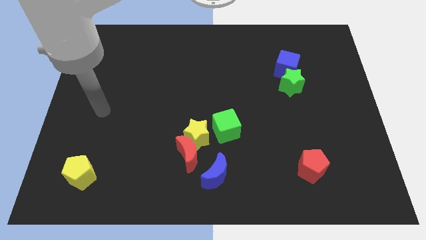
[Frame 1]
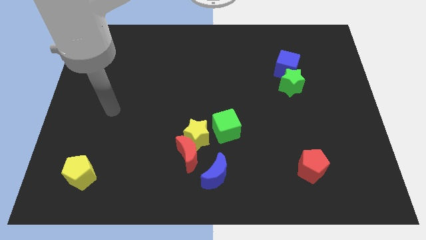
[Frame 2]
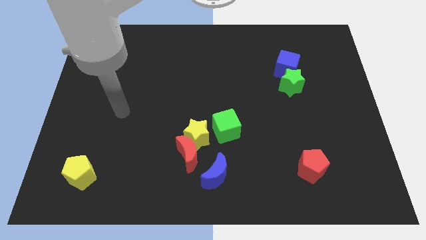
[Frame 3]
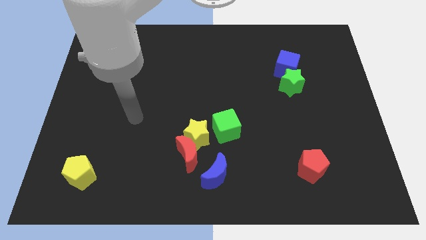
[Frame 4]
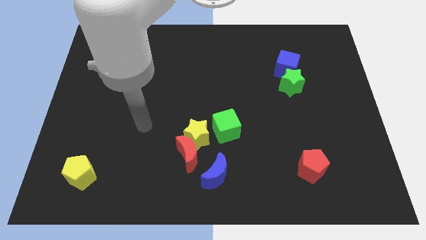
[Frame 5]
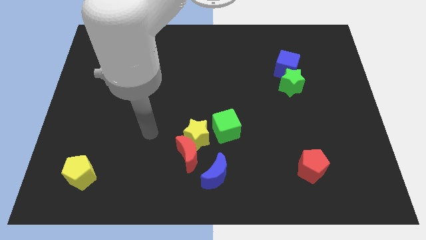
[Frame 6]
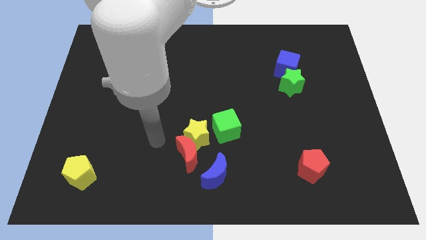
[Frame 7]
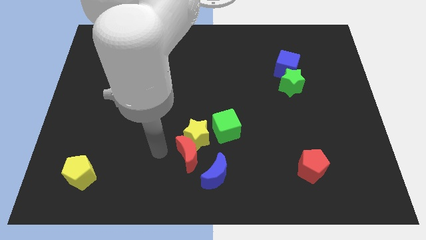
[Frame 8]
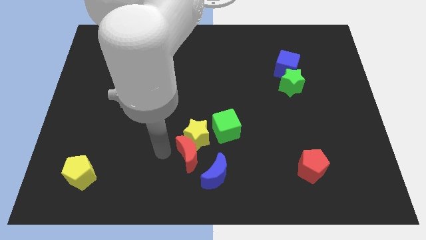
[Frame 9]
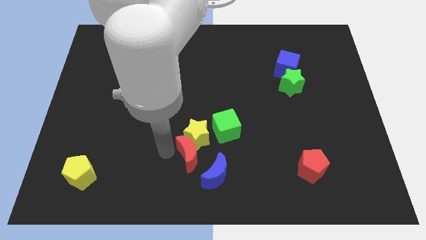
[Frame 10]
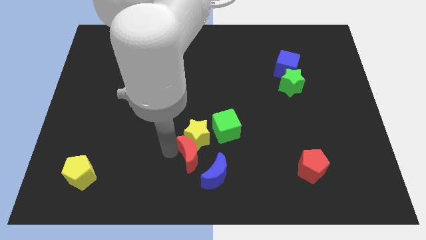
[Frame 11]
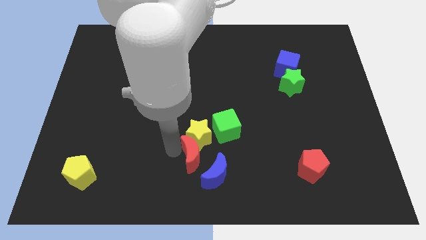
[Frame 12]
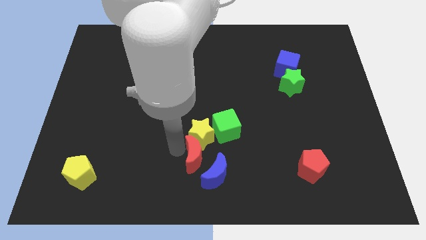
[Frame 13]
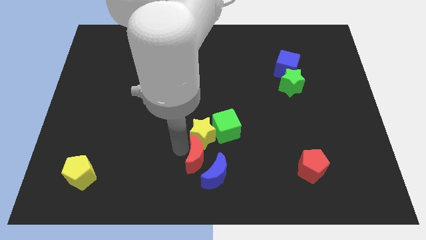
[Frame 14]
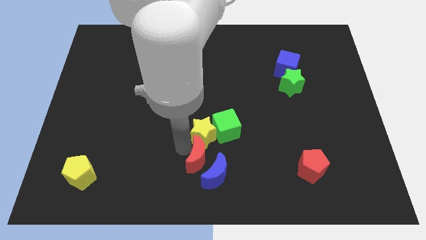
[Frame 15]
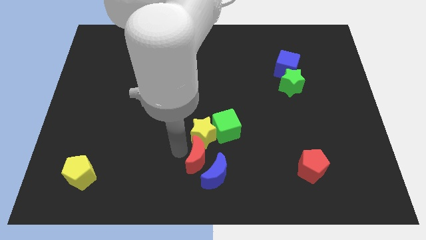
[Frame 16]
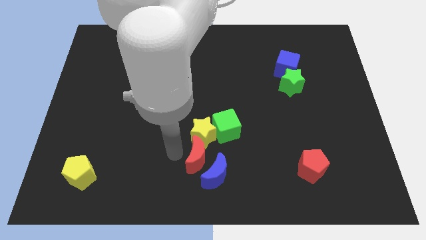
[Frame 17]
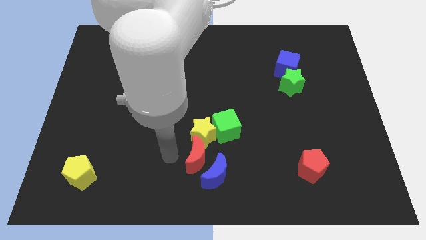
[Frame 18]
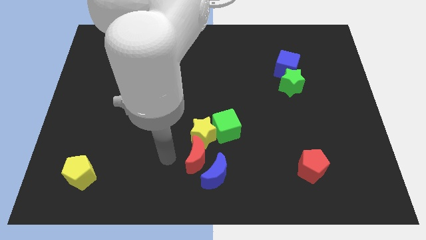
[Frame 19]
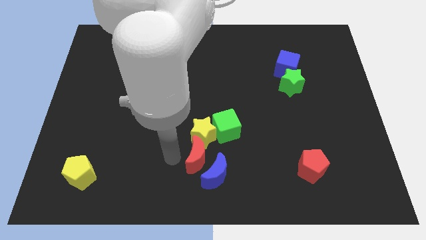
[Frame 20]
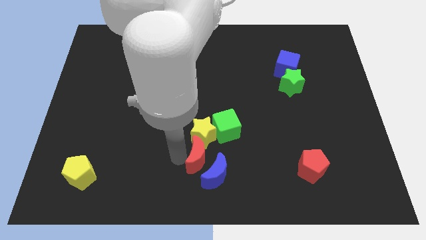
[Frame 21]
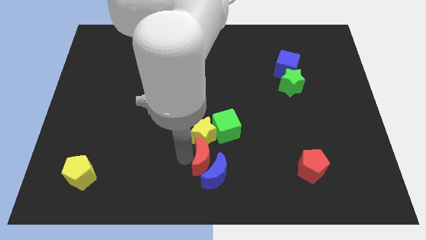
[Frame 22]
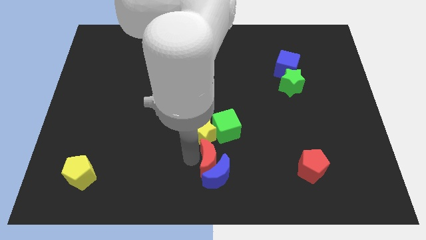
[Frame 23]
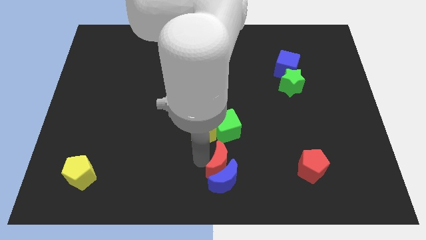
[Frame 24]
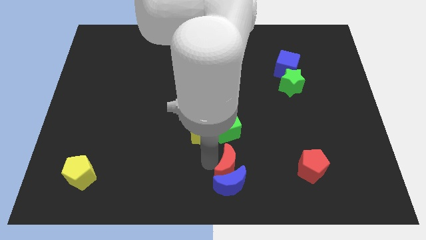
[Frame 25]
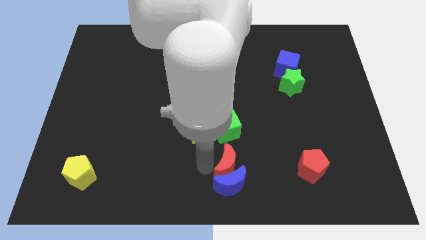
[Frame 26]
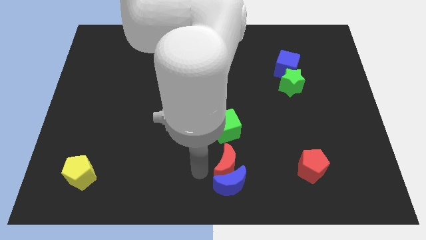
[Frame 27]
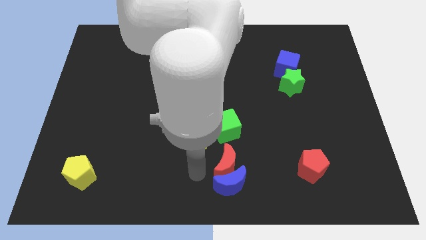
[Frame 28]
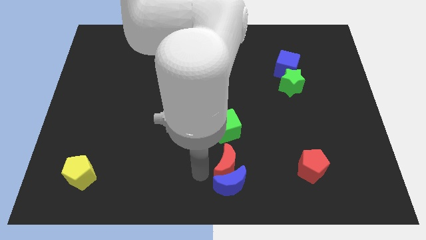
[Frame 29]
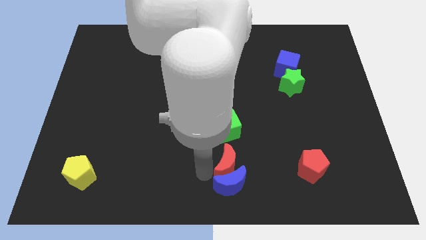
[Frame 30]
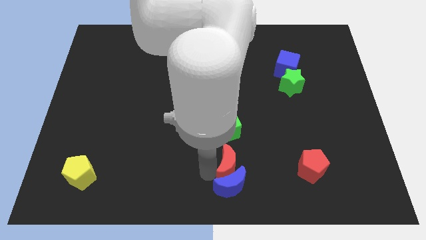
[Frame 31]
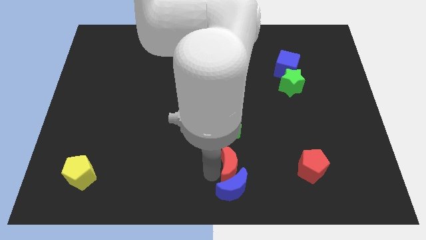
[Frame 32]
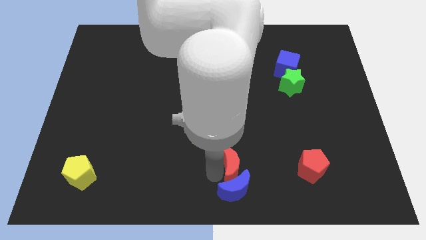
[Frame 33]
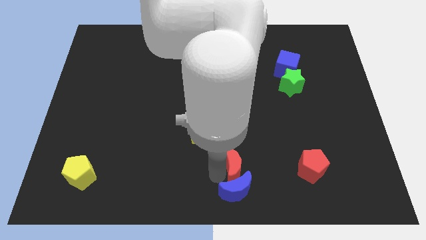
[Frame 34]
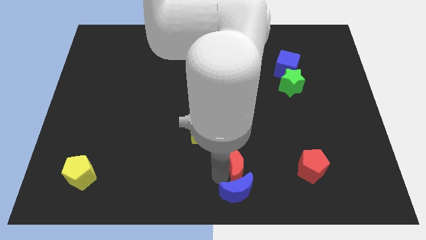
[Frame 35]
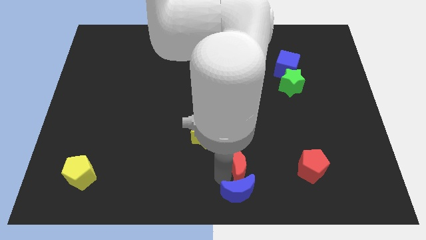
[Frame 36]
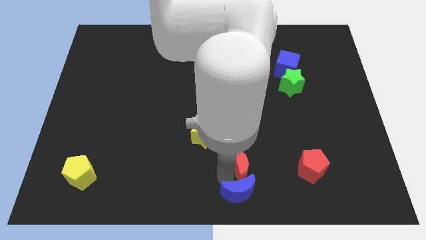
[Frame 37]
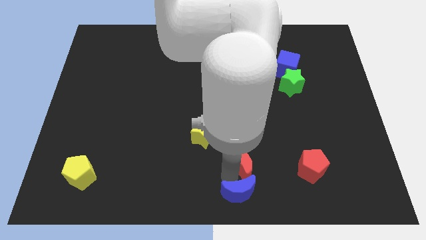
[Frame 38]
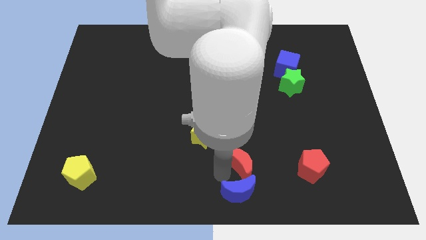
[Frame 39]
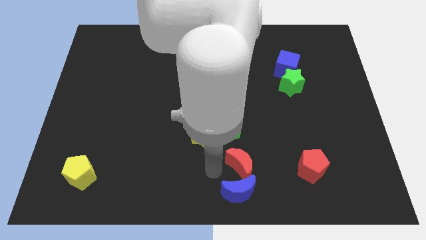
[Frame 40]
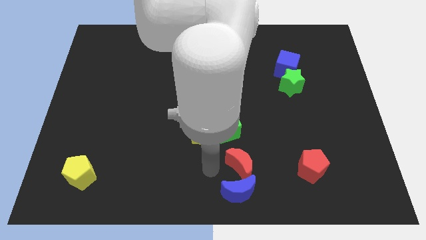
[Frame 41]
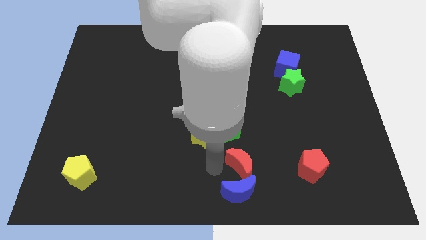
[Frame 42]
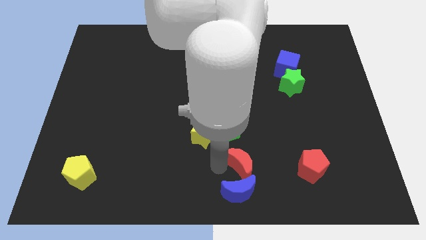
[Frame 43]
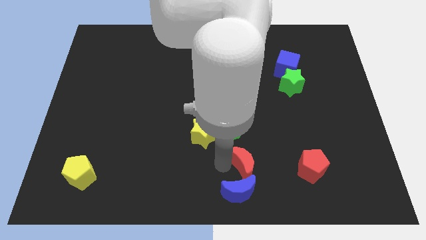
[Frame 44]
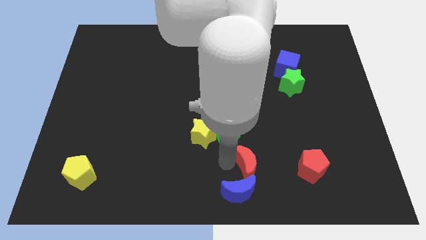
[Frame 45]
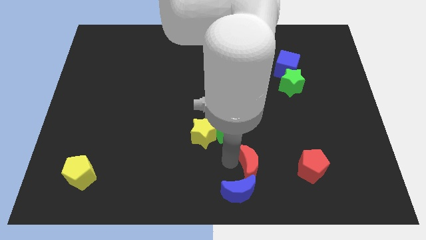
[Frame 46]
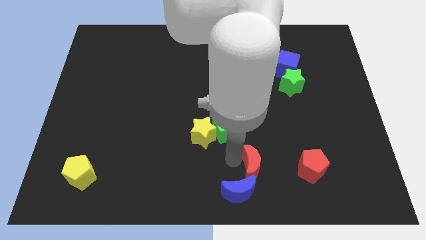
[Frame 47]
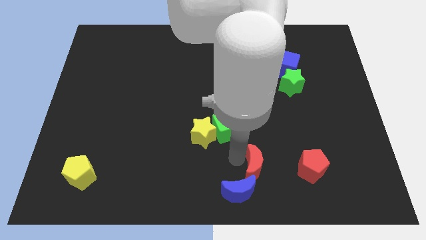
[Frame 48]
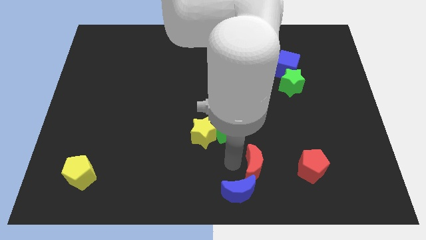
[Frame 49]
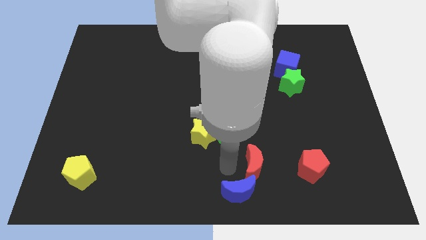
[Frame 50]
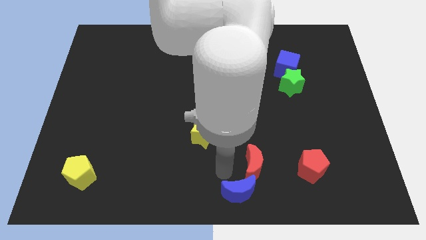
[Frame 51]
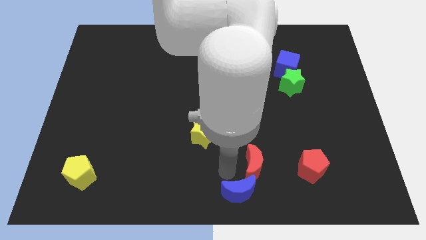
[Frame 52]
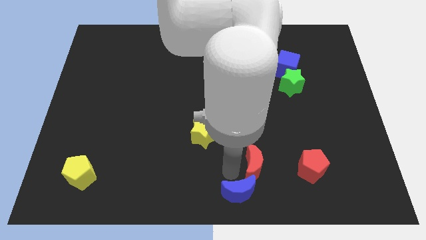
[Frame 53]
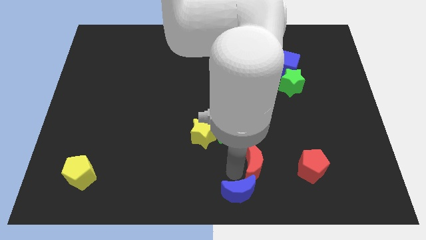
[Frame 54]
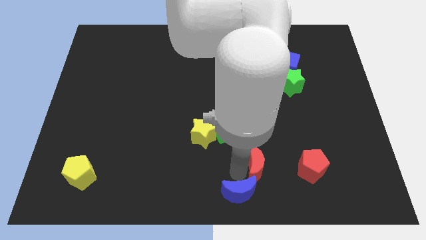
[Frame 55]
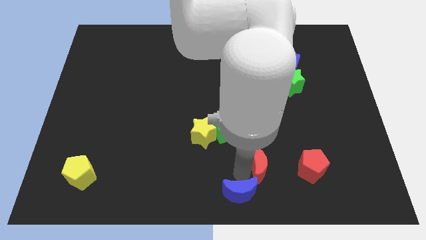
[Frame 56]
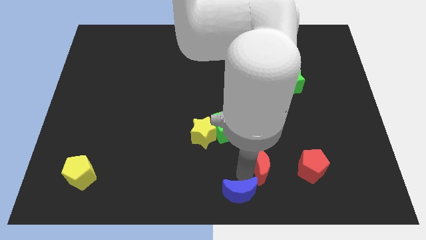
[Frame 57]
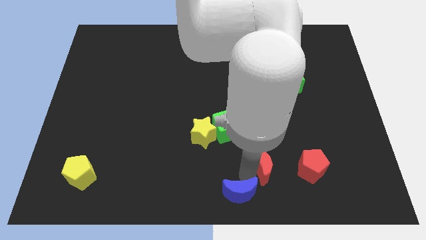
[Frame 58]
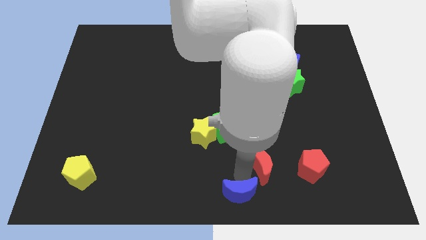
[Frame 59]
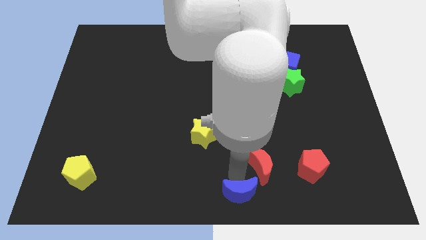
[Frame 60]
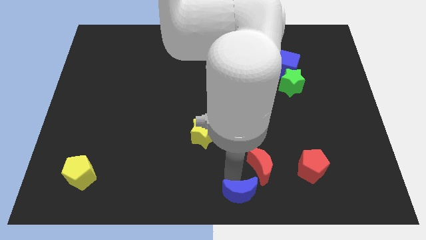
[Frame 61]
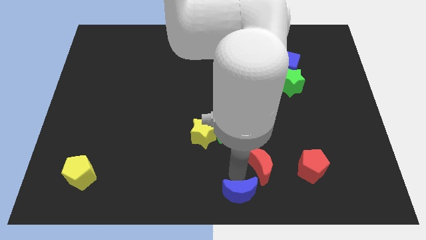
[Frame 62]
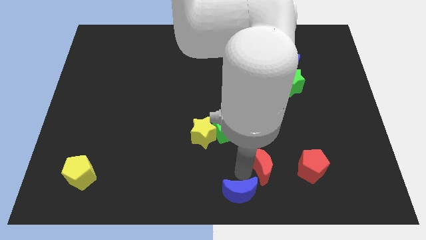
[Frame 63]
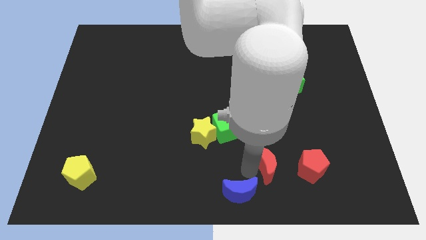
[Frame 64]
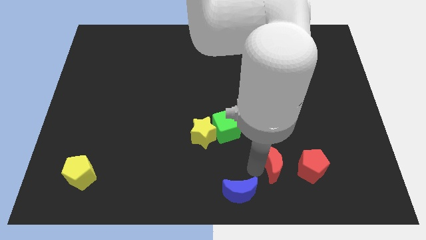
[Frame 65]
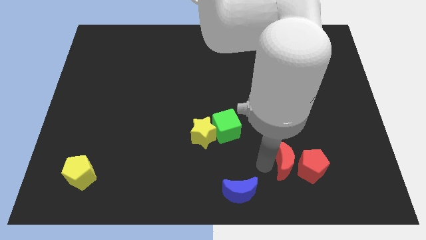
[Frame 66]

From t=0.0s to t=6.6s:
move the red moon to the red pentagon
